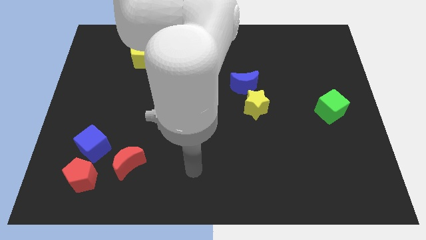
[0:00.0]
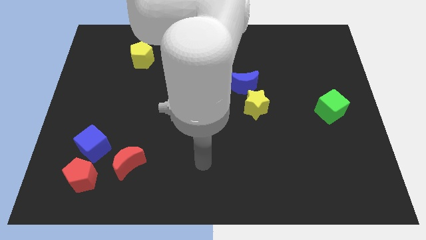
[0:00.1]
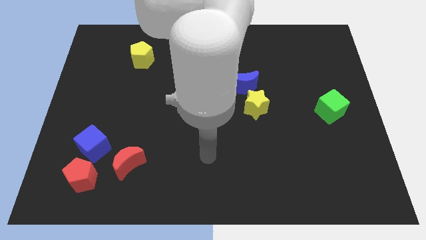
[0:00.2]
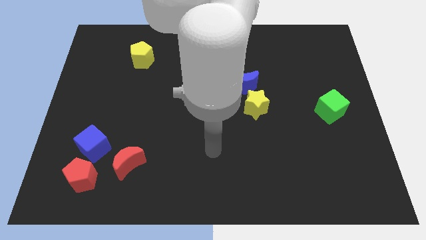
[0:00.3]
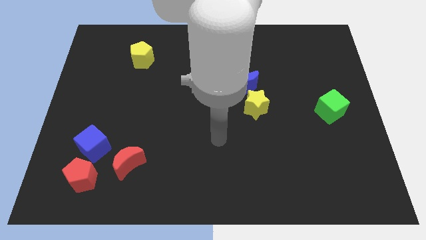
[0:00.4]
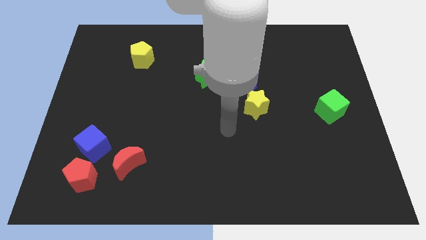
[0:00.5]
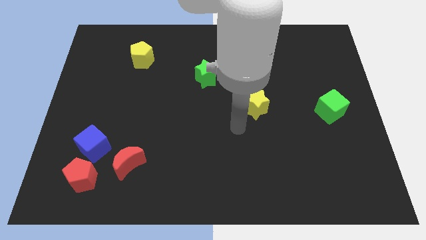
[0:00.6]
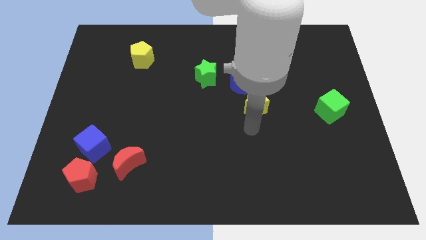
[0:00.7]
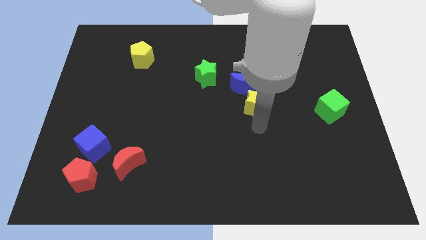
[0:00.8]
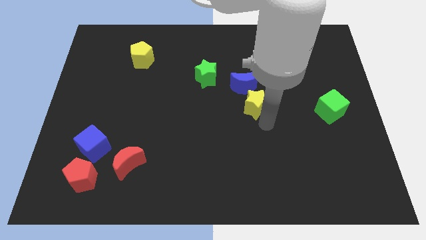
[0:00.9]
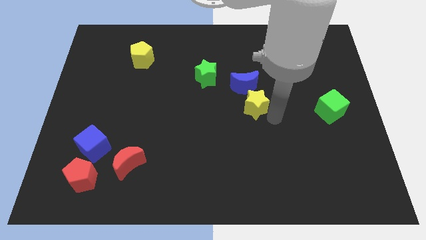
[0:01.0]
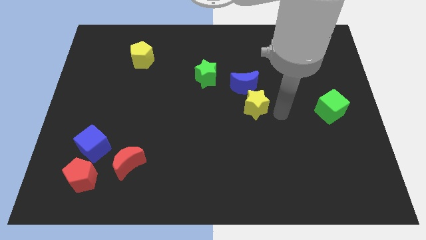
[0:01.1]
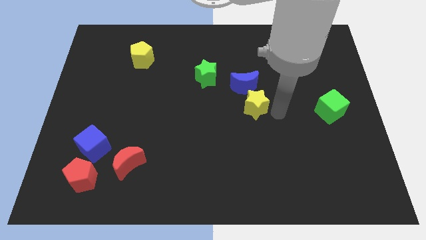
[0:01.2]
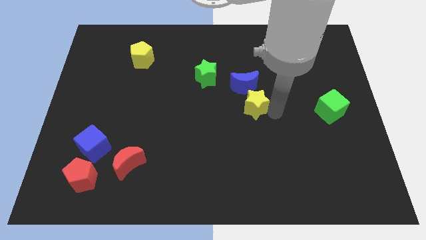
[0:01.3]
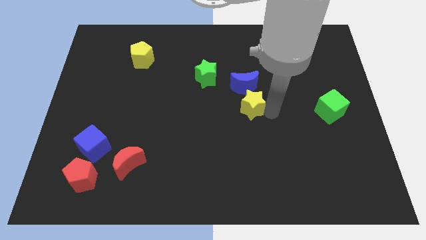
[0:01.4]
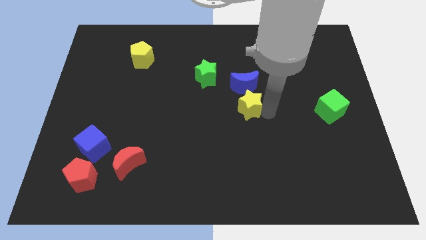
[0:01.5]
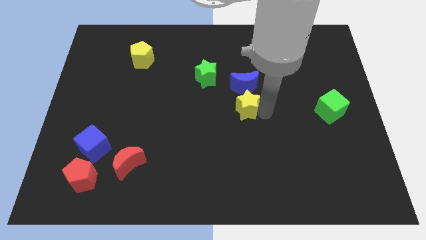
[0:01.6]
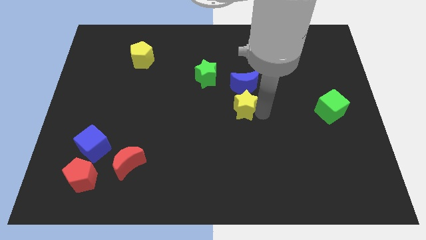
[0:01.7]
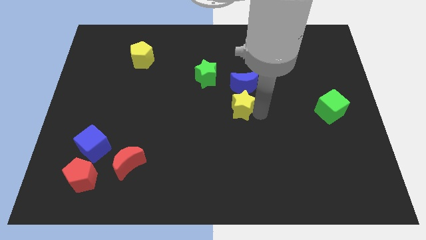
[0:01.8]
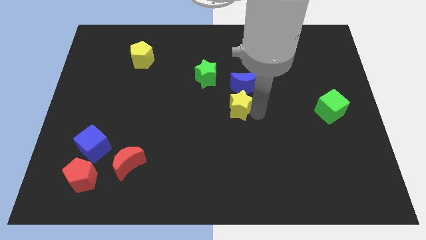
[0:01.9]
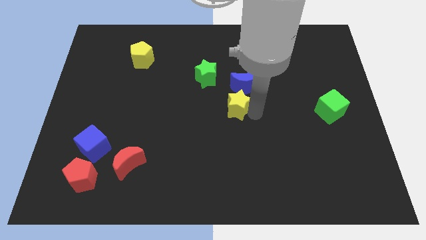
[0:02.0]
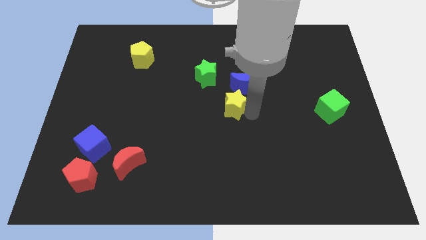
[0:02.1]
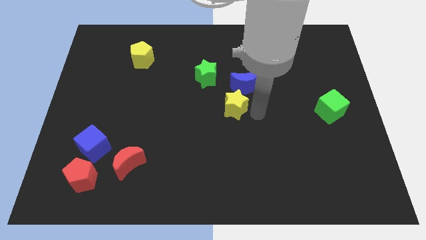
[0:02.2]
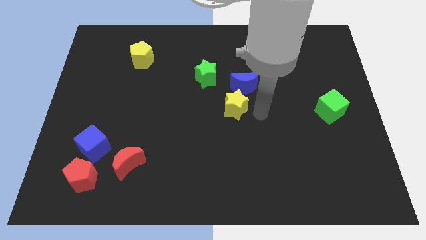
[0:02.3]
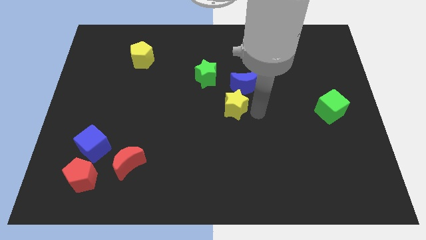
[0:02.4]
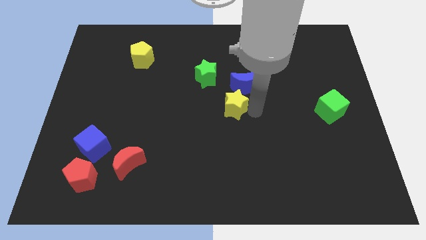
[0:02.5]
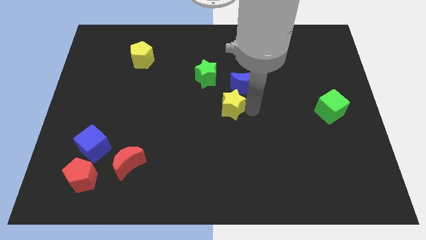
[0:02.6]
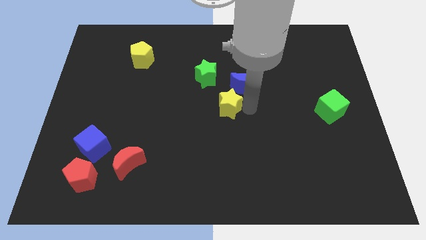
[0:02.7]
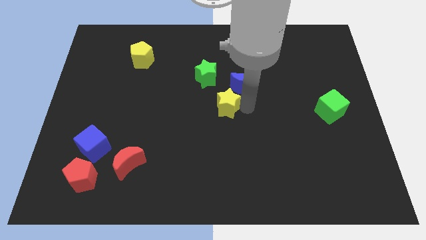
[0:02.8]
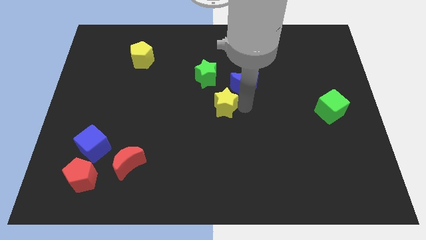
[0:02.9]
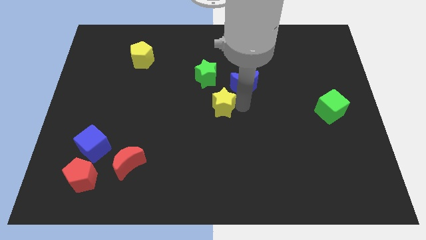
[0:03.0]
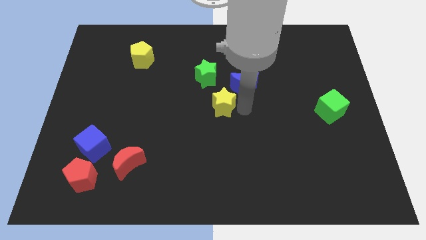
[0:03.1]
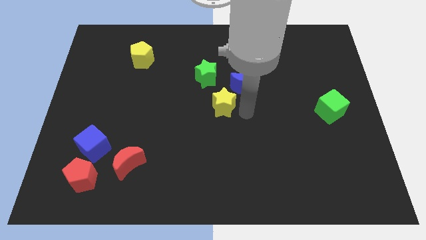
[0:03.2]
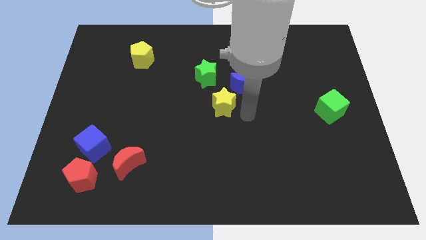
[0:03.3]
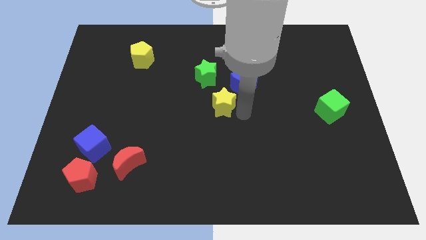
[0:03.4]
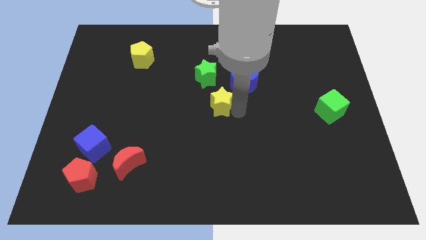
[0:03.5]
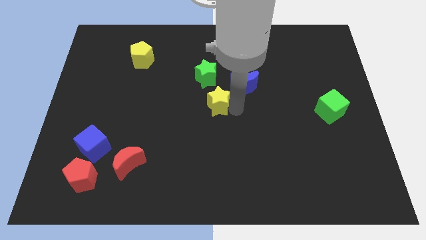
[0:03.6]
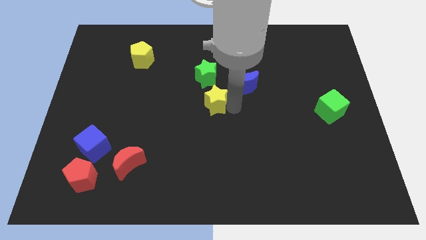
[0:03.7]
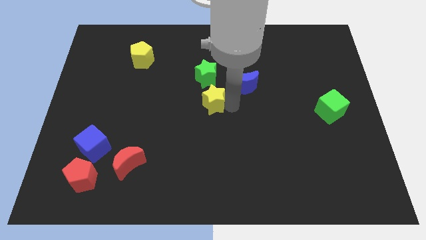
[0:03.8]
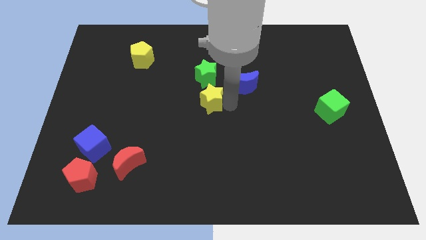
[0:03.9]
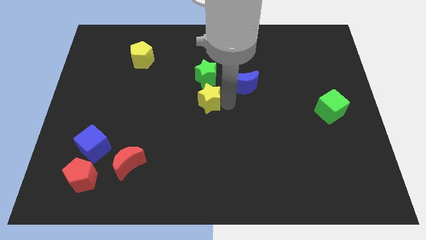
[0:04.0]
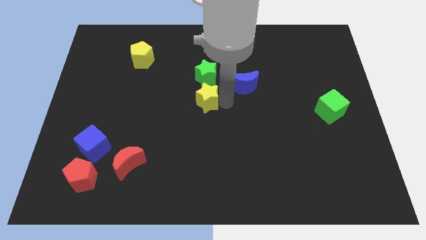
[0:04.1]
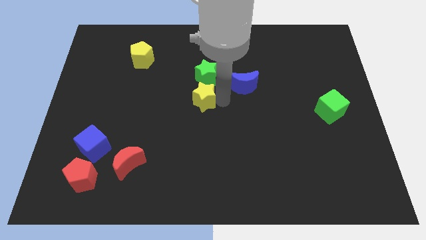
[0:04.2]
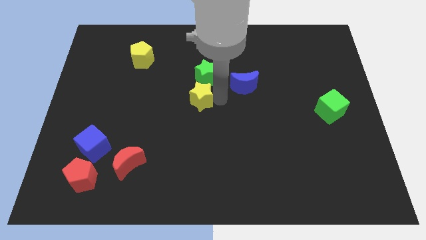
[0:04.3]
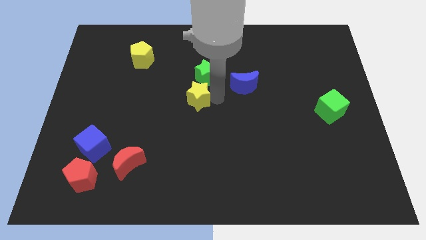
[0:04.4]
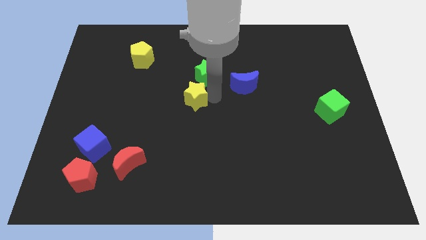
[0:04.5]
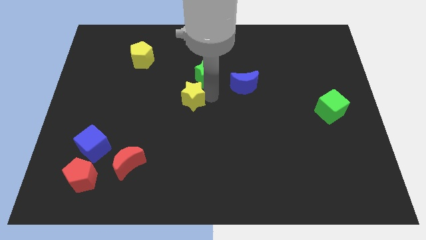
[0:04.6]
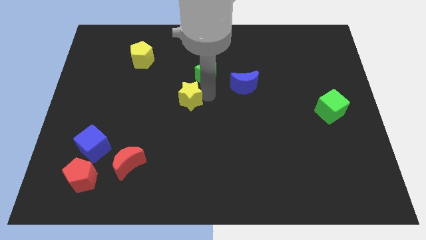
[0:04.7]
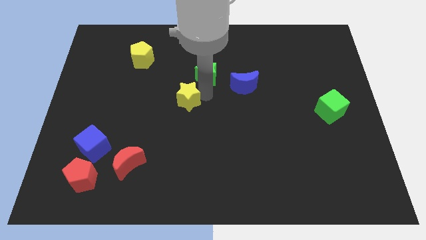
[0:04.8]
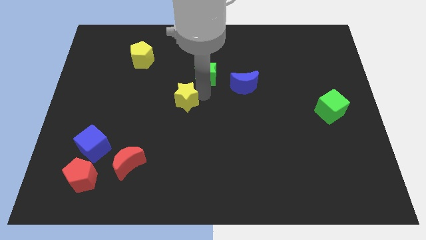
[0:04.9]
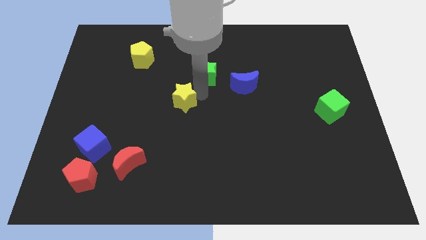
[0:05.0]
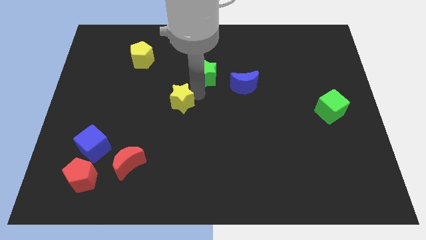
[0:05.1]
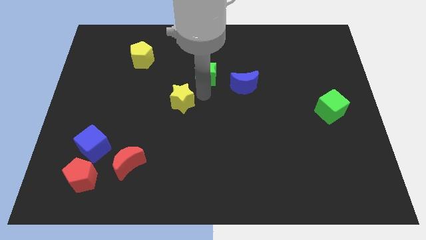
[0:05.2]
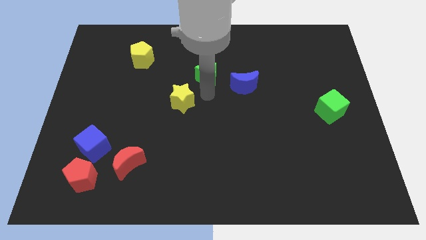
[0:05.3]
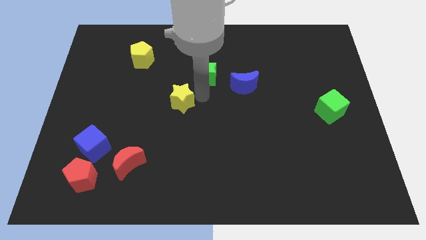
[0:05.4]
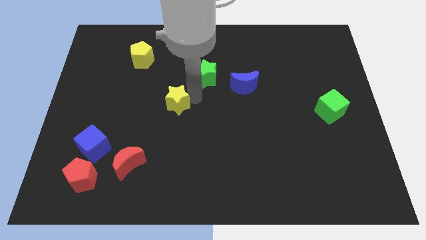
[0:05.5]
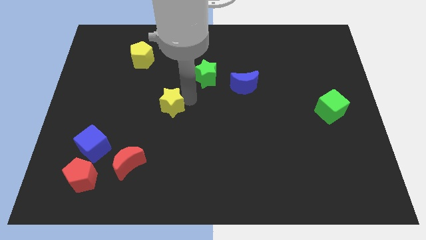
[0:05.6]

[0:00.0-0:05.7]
move the yellow star to the left

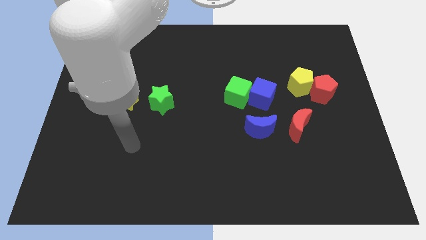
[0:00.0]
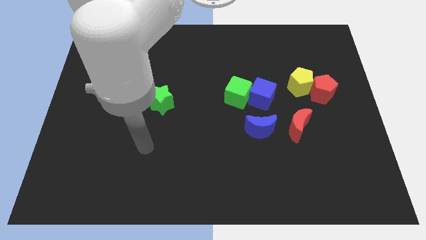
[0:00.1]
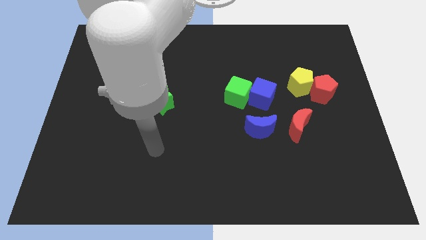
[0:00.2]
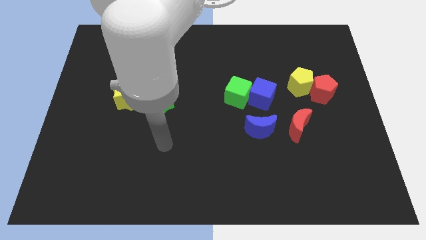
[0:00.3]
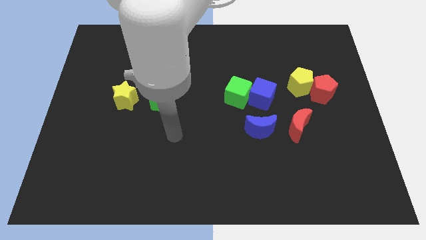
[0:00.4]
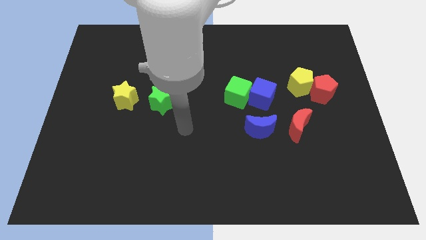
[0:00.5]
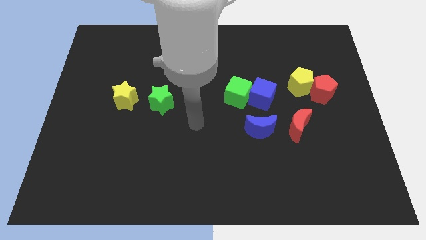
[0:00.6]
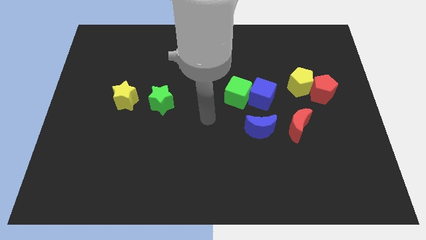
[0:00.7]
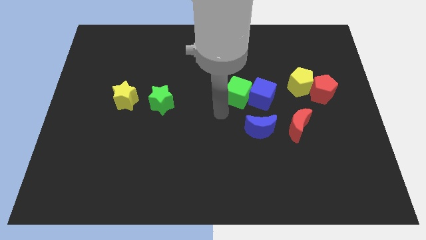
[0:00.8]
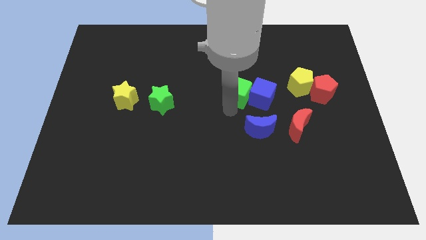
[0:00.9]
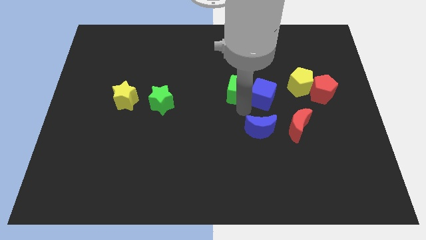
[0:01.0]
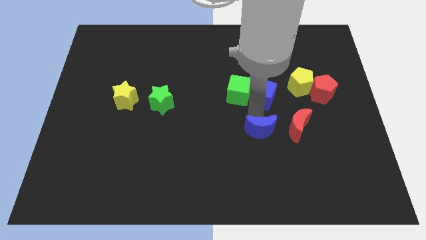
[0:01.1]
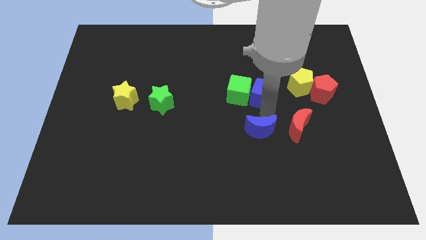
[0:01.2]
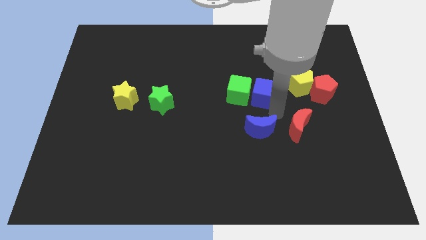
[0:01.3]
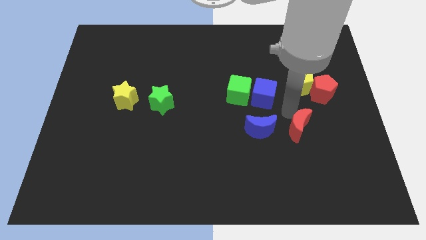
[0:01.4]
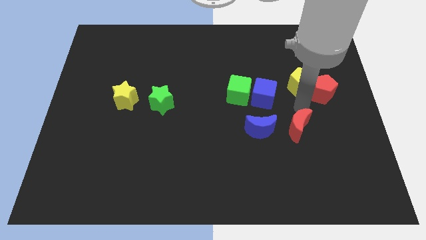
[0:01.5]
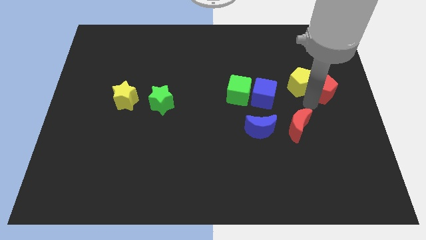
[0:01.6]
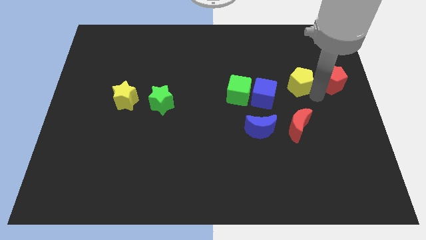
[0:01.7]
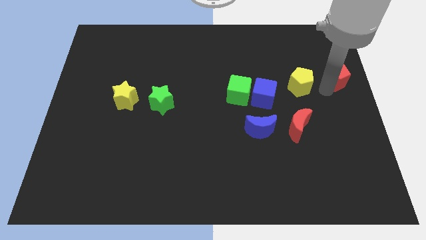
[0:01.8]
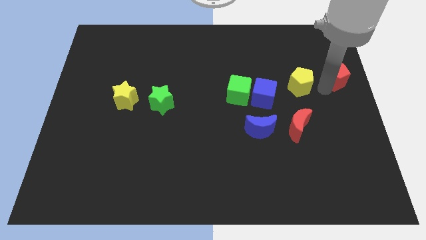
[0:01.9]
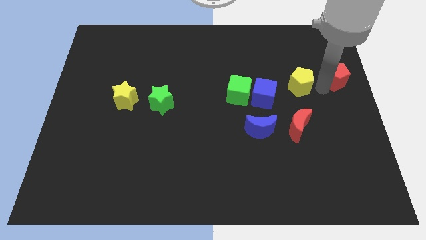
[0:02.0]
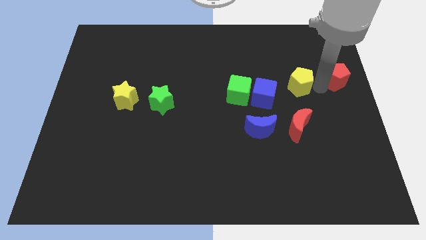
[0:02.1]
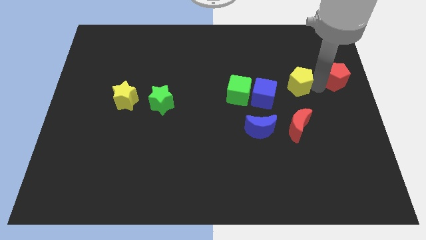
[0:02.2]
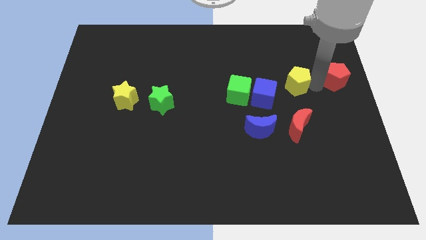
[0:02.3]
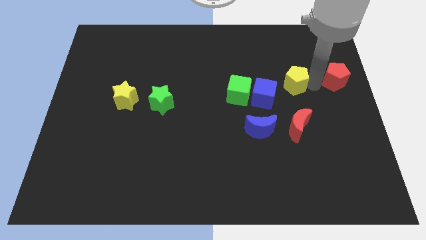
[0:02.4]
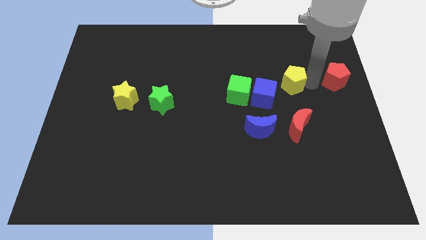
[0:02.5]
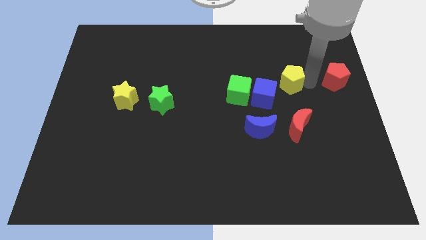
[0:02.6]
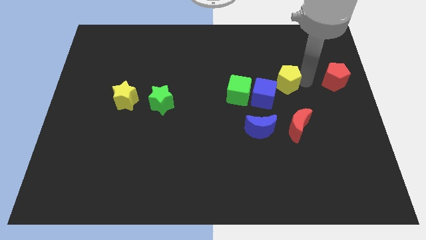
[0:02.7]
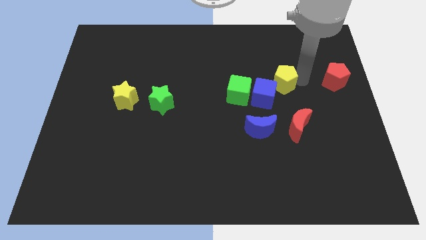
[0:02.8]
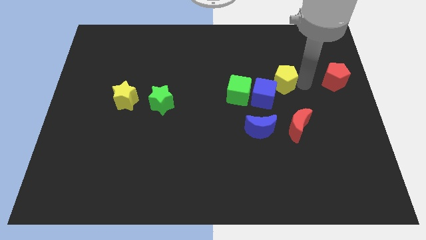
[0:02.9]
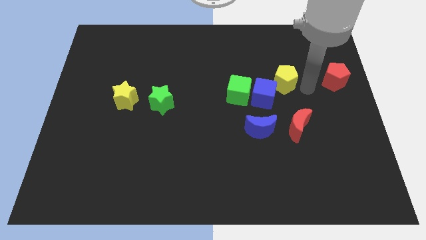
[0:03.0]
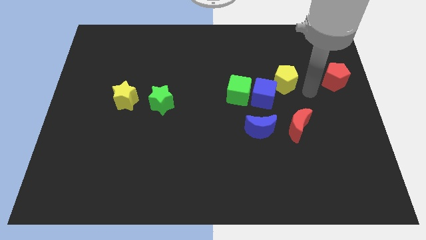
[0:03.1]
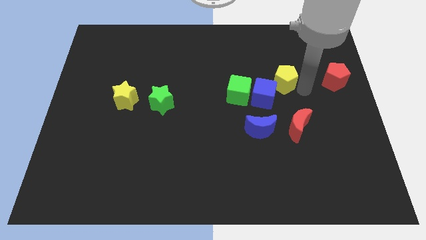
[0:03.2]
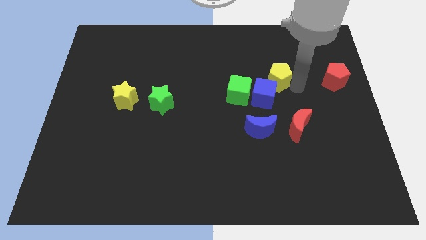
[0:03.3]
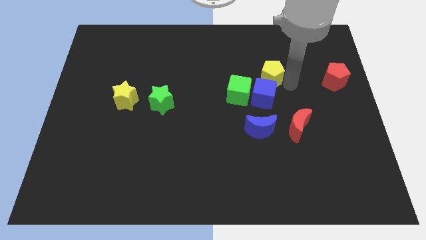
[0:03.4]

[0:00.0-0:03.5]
slightly move the yellow pentagon to the left
